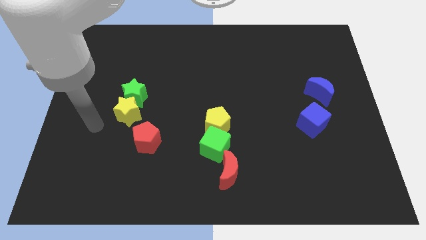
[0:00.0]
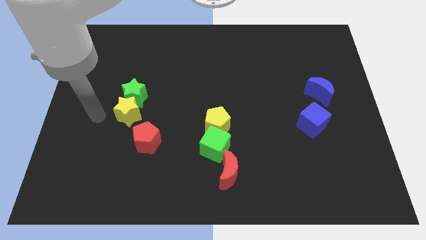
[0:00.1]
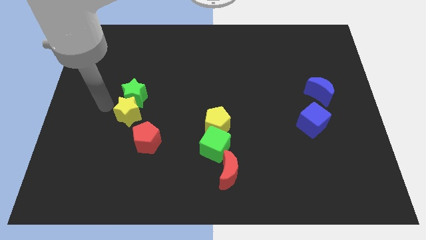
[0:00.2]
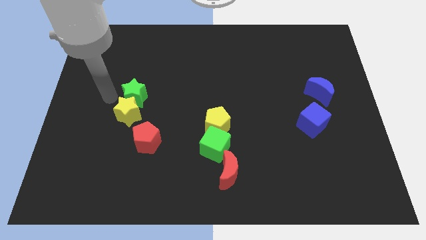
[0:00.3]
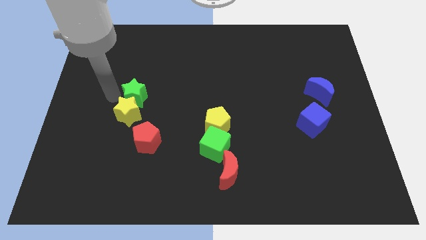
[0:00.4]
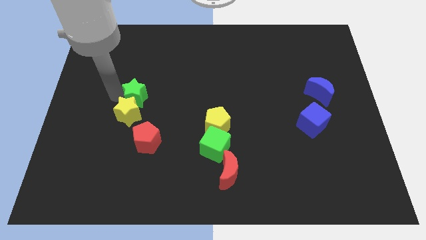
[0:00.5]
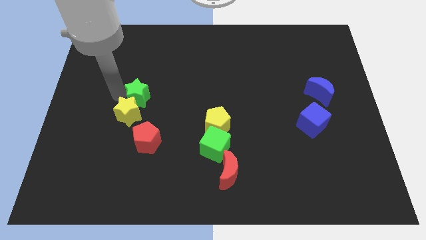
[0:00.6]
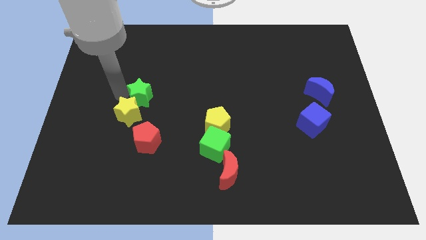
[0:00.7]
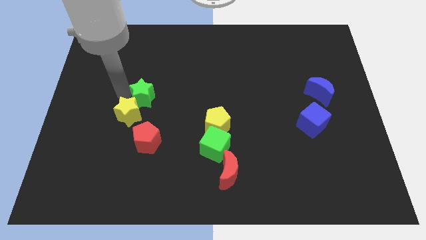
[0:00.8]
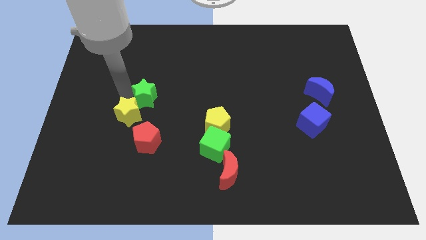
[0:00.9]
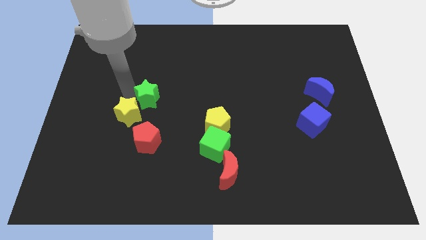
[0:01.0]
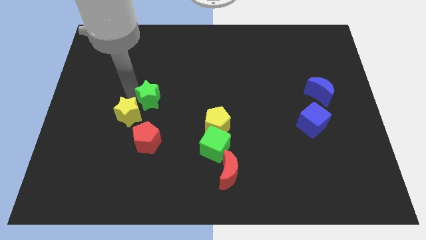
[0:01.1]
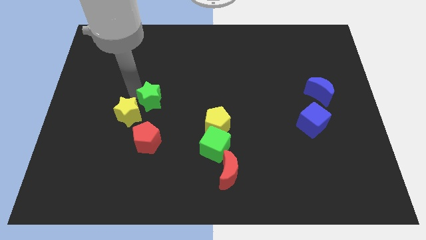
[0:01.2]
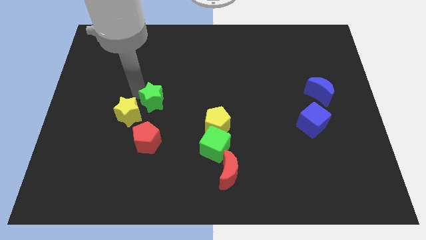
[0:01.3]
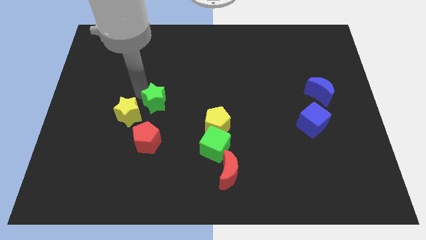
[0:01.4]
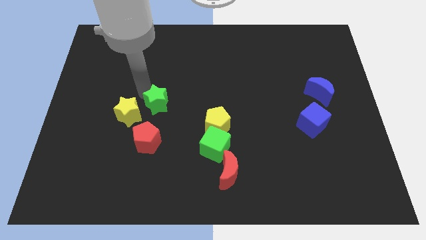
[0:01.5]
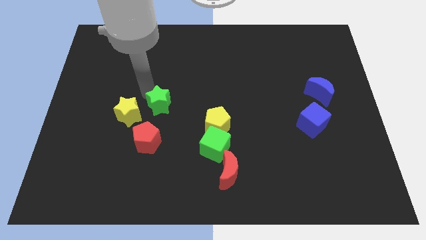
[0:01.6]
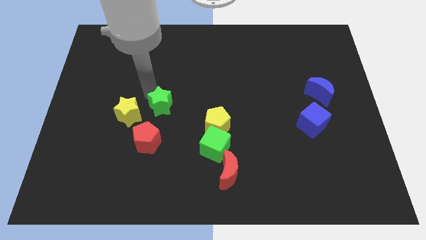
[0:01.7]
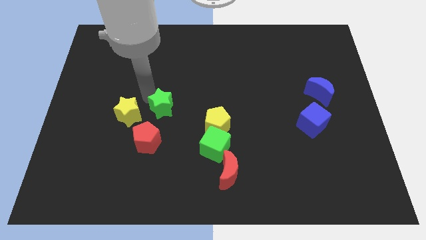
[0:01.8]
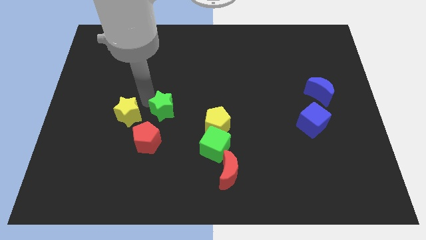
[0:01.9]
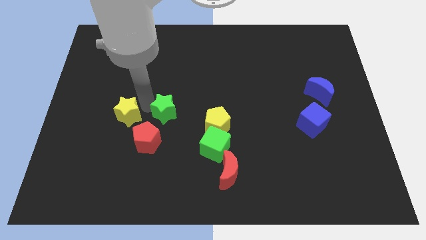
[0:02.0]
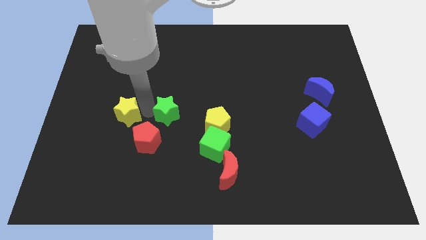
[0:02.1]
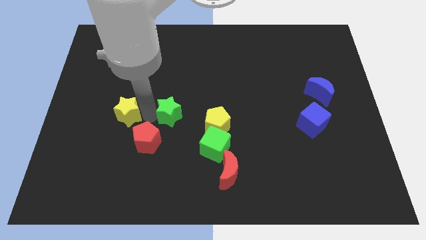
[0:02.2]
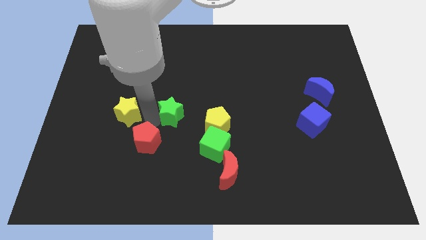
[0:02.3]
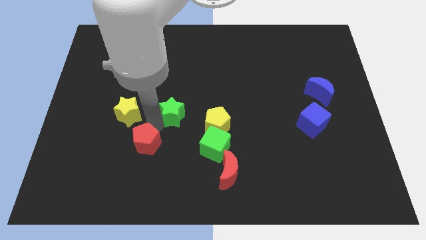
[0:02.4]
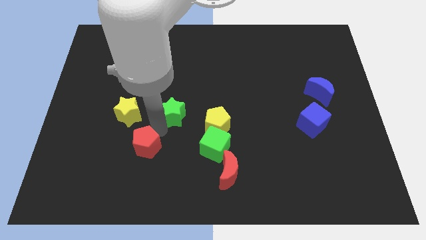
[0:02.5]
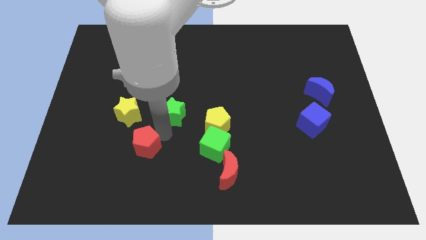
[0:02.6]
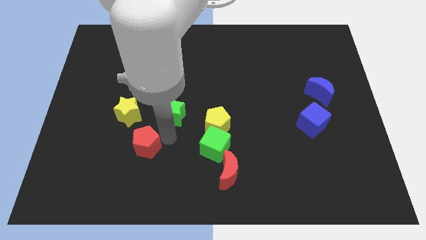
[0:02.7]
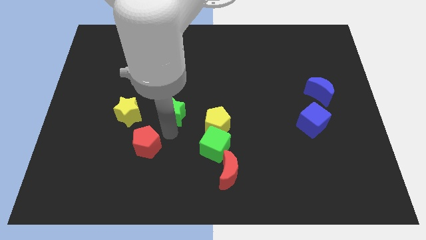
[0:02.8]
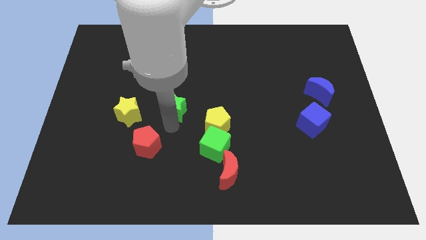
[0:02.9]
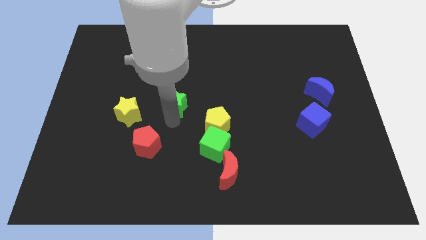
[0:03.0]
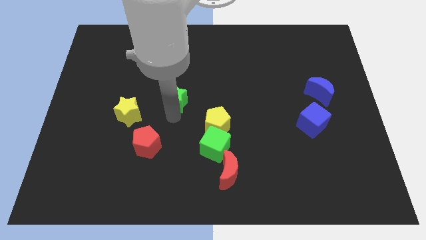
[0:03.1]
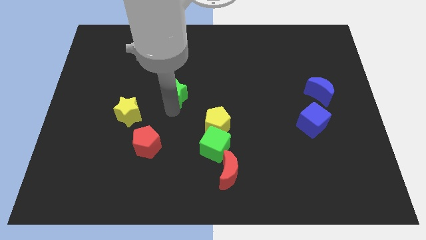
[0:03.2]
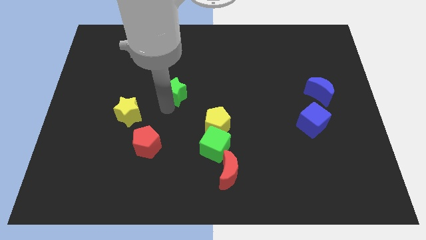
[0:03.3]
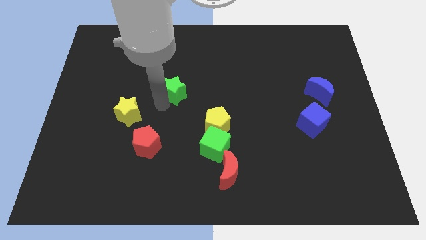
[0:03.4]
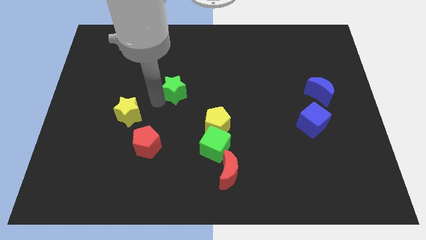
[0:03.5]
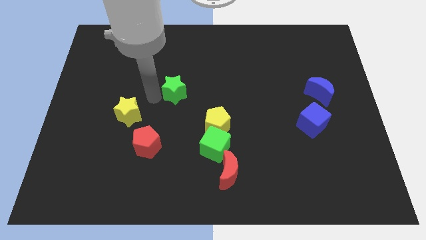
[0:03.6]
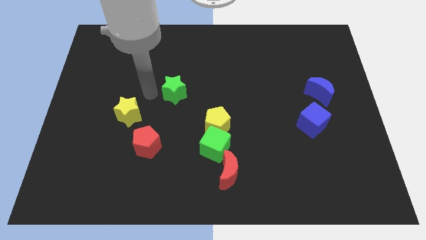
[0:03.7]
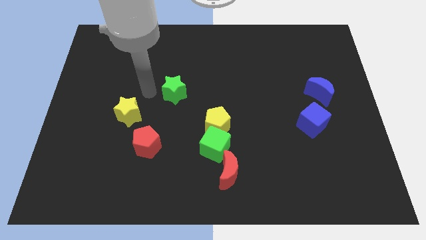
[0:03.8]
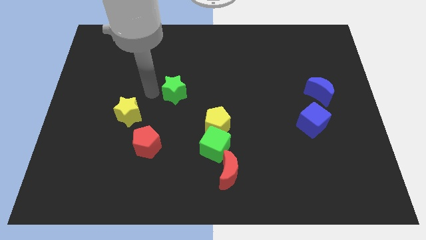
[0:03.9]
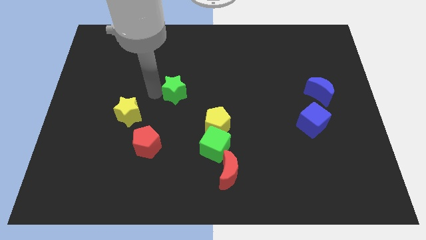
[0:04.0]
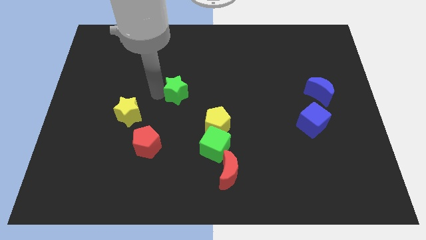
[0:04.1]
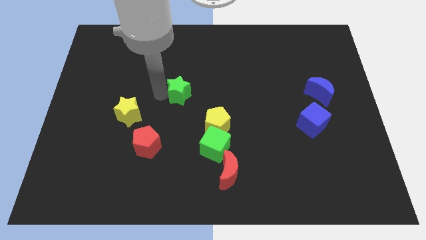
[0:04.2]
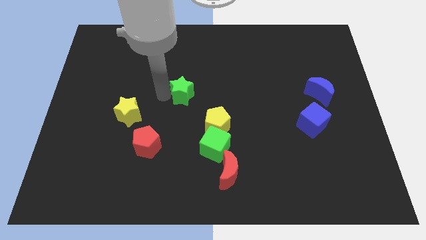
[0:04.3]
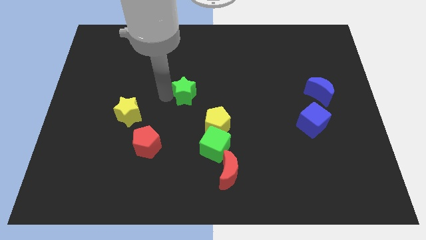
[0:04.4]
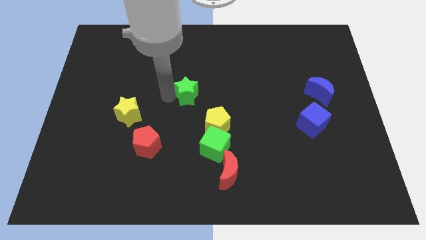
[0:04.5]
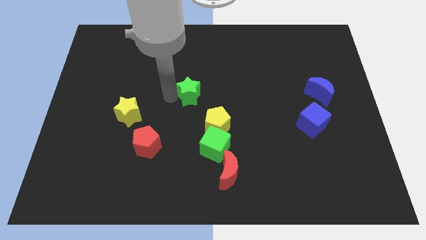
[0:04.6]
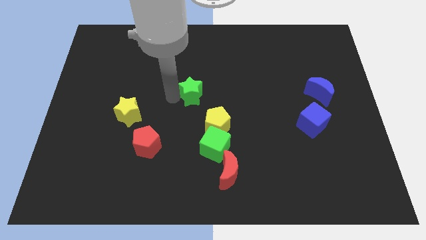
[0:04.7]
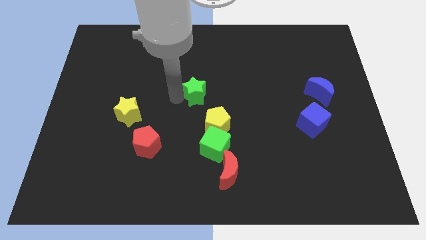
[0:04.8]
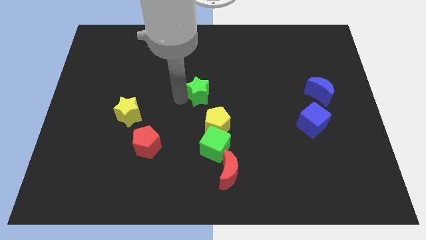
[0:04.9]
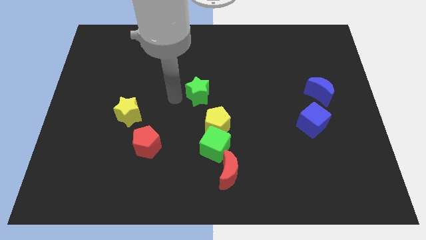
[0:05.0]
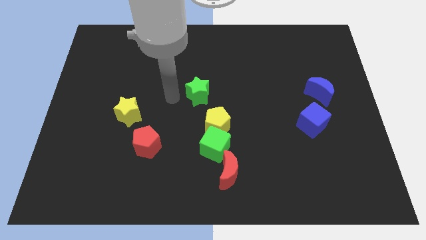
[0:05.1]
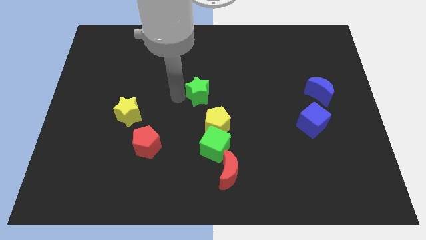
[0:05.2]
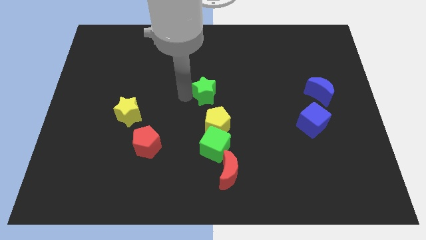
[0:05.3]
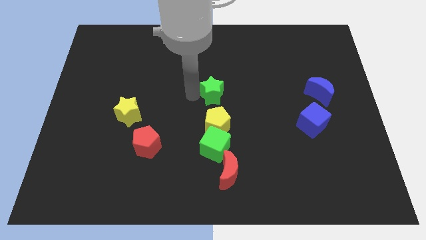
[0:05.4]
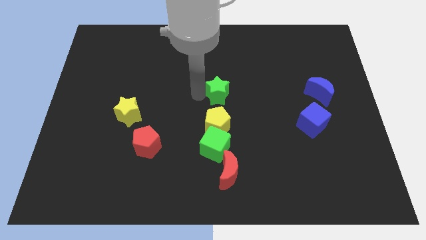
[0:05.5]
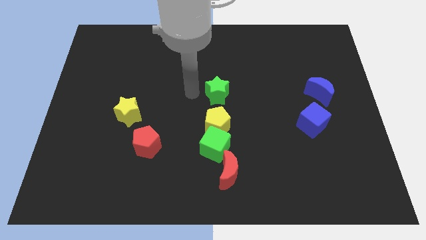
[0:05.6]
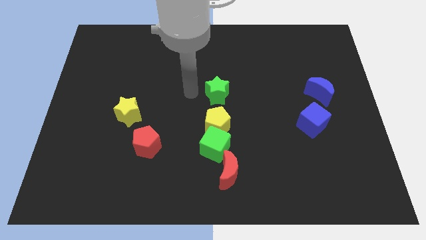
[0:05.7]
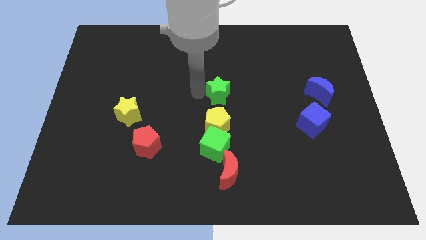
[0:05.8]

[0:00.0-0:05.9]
slide the green star right

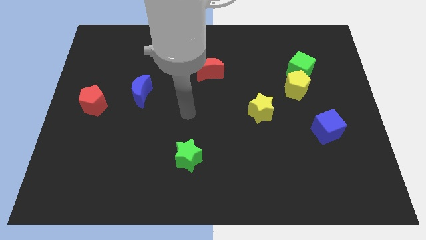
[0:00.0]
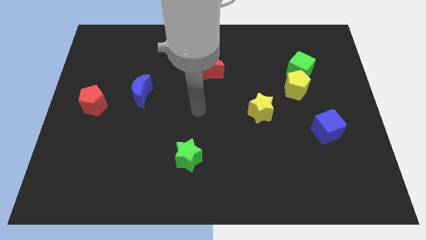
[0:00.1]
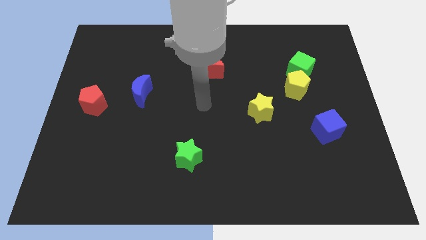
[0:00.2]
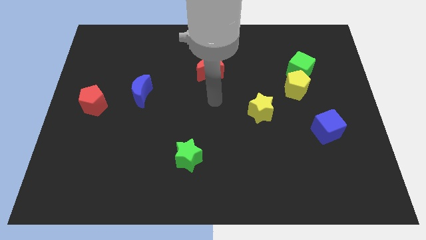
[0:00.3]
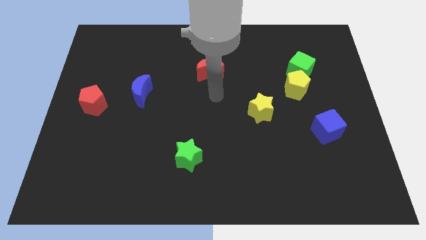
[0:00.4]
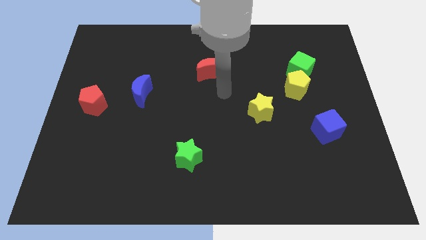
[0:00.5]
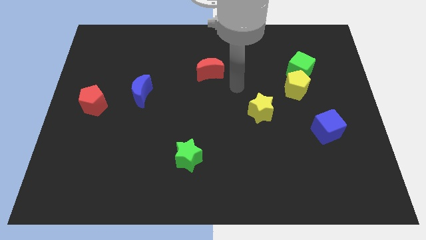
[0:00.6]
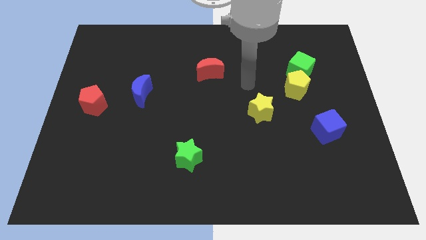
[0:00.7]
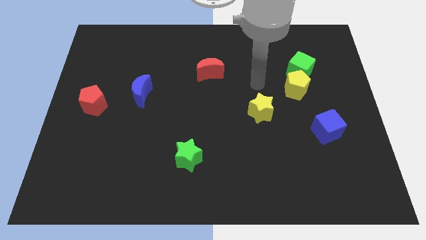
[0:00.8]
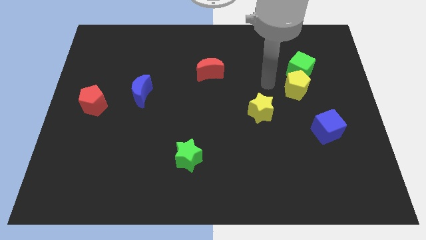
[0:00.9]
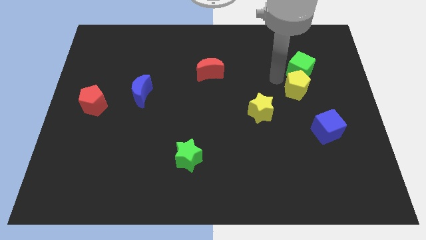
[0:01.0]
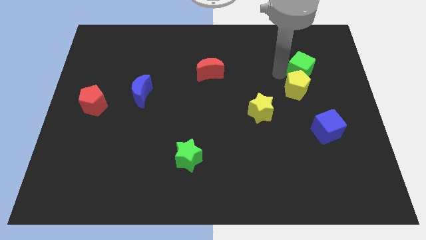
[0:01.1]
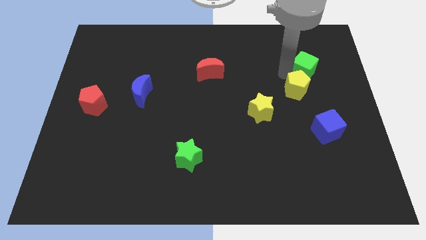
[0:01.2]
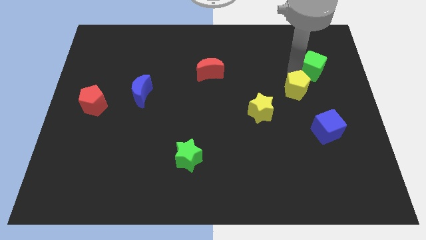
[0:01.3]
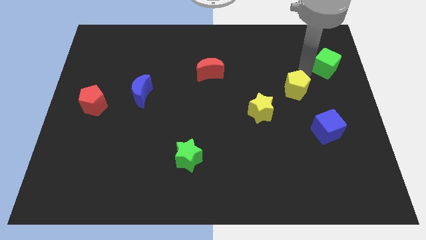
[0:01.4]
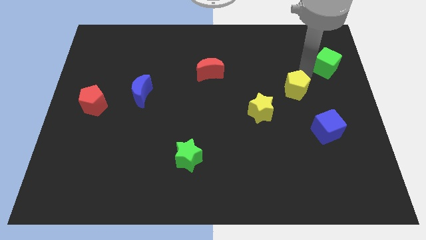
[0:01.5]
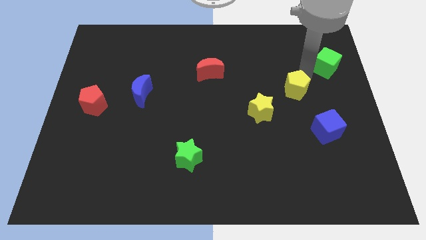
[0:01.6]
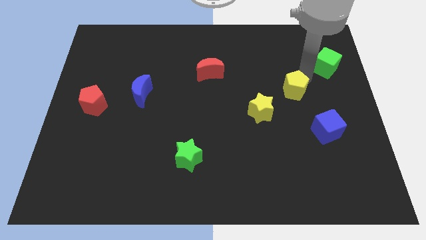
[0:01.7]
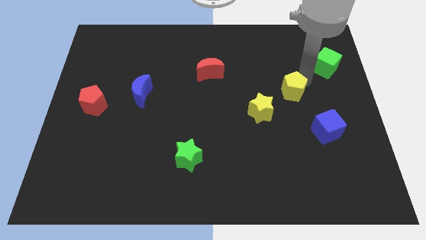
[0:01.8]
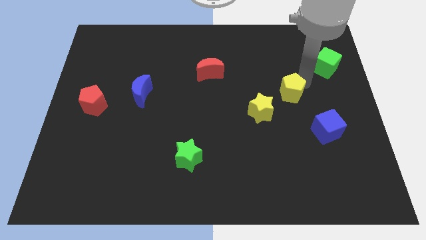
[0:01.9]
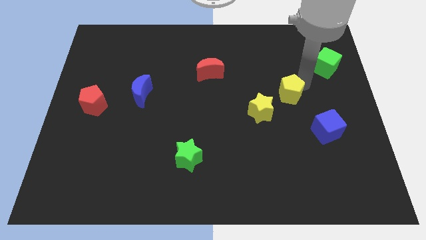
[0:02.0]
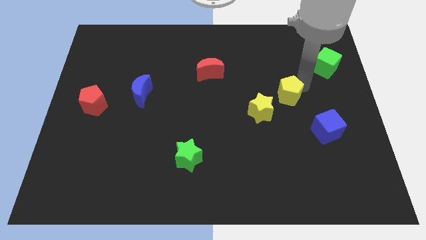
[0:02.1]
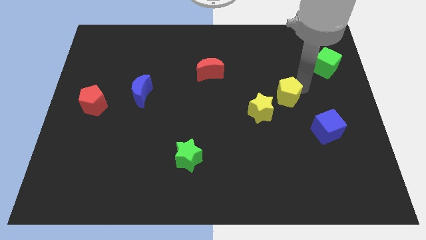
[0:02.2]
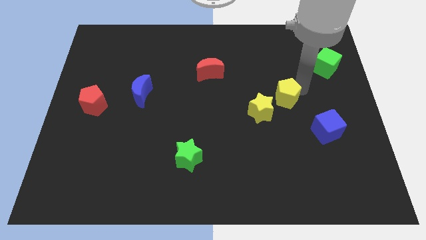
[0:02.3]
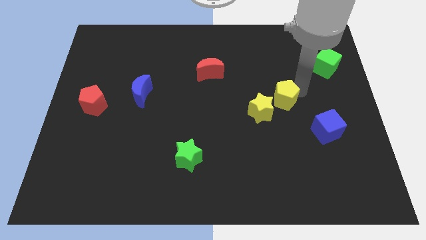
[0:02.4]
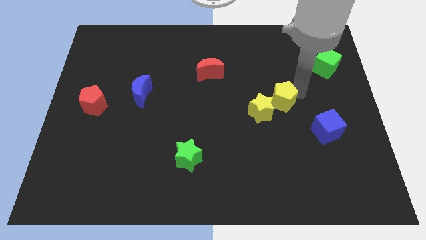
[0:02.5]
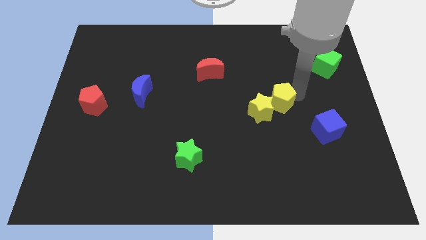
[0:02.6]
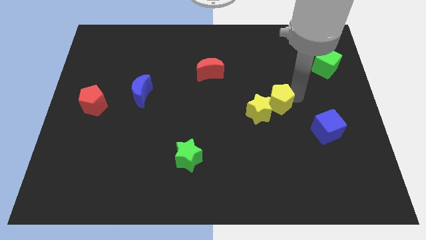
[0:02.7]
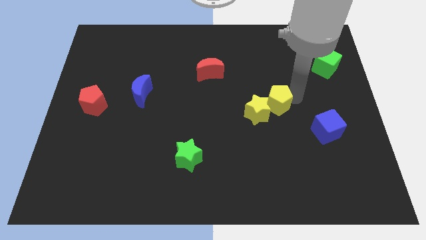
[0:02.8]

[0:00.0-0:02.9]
slightly push the yellow pentagon downwards and then to the left
